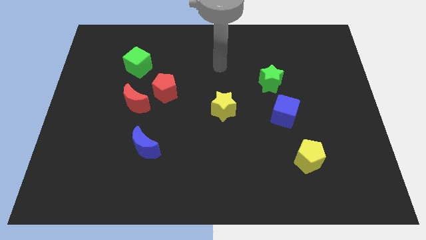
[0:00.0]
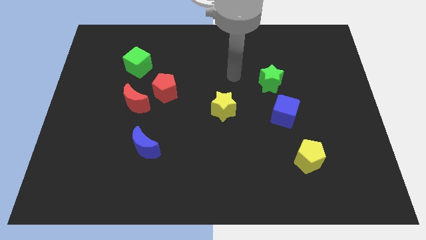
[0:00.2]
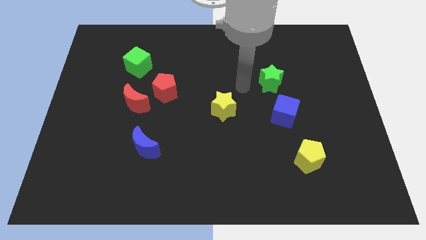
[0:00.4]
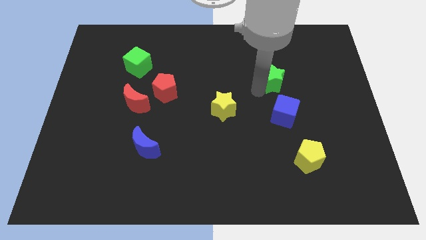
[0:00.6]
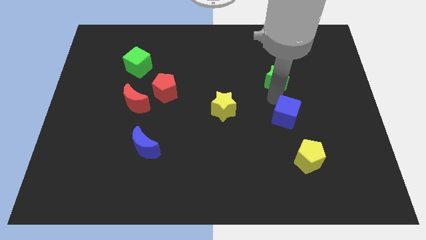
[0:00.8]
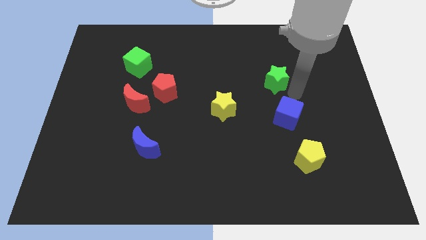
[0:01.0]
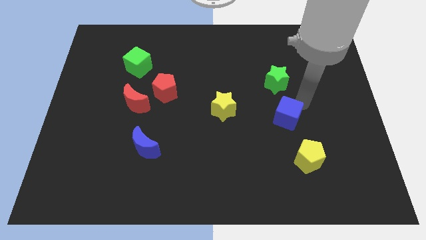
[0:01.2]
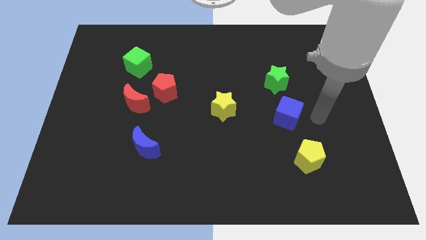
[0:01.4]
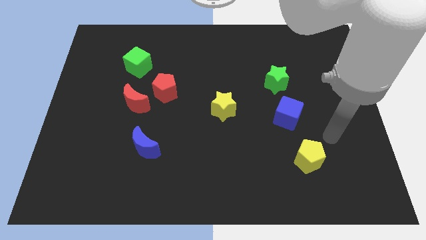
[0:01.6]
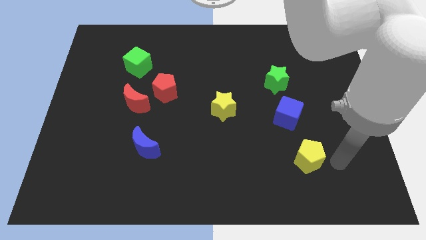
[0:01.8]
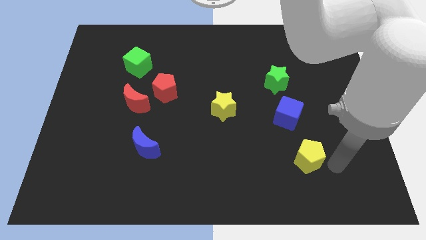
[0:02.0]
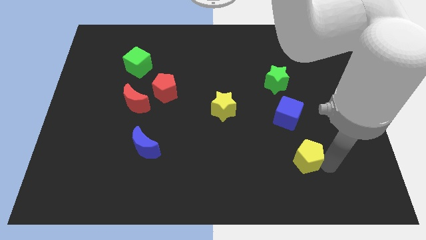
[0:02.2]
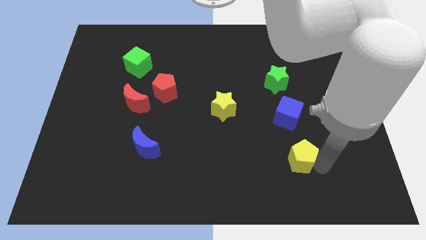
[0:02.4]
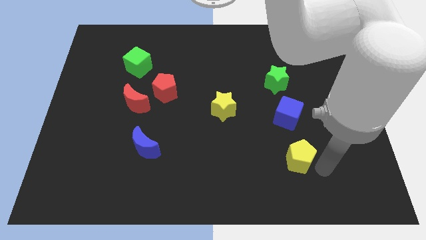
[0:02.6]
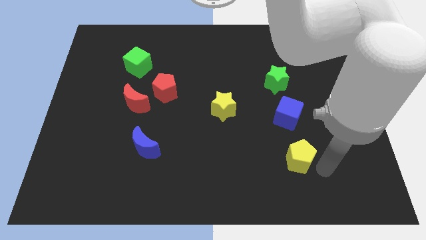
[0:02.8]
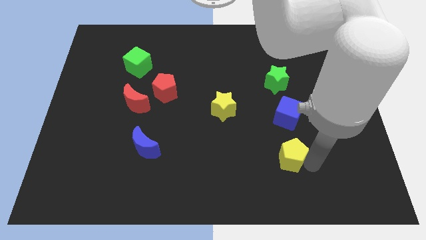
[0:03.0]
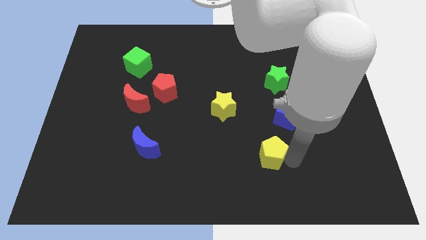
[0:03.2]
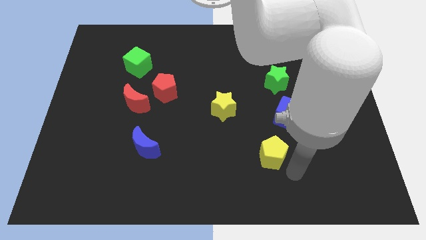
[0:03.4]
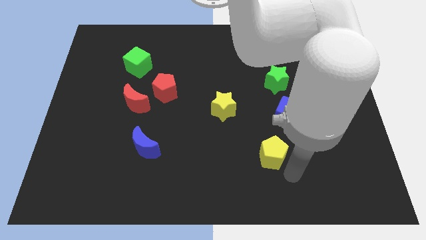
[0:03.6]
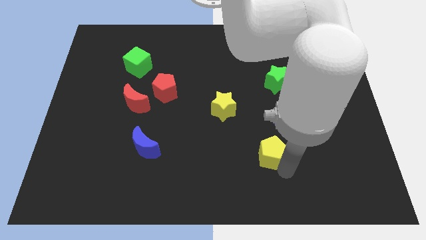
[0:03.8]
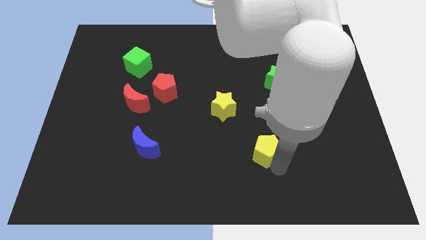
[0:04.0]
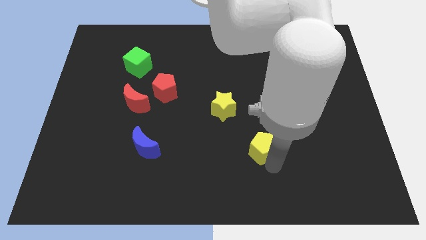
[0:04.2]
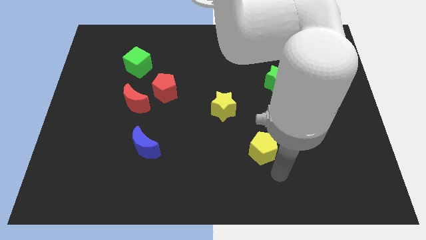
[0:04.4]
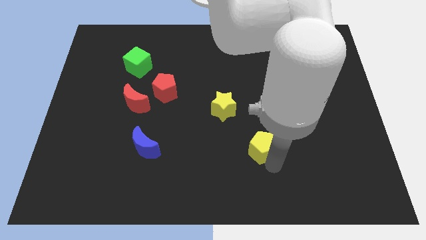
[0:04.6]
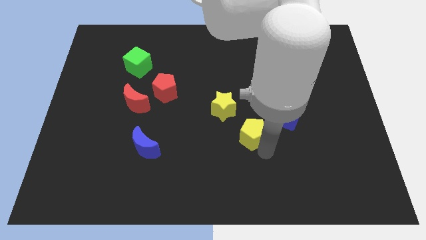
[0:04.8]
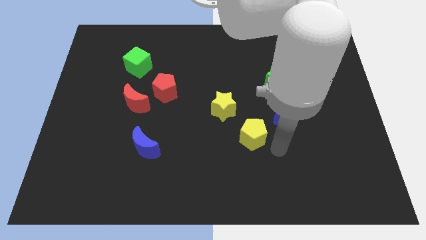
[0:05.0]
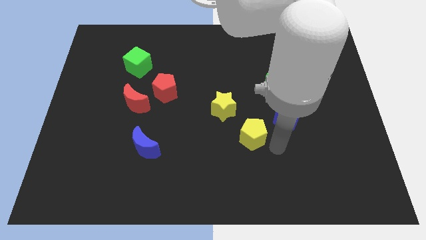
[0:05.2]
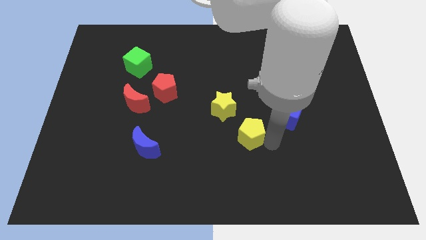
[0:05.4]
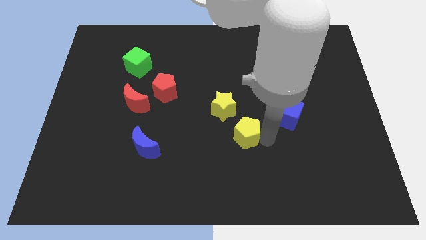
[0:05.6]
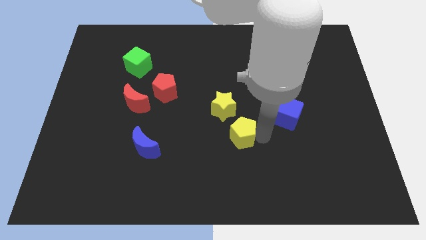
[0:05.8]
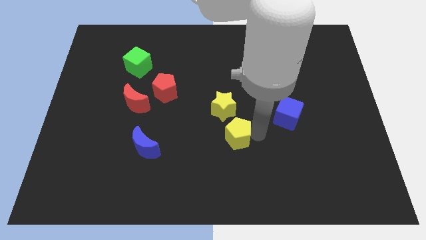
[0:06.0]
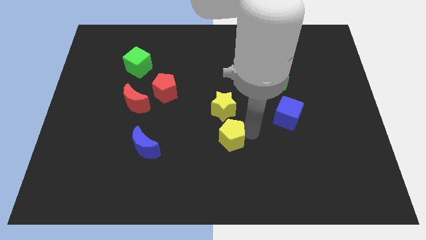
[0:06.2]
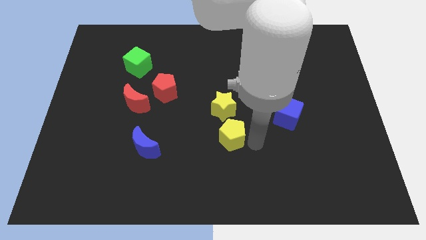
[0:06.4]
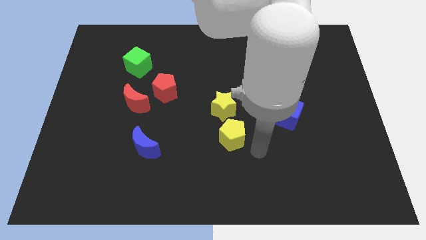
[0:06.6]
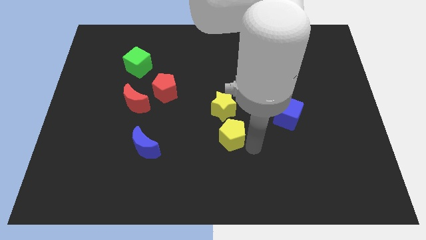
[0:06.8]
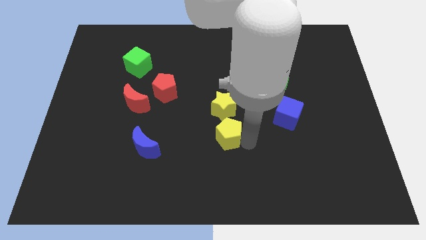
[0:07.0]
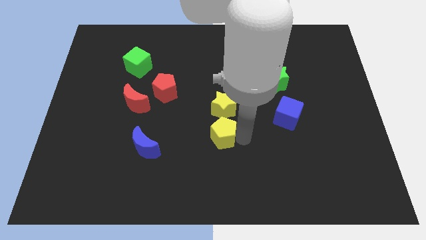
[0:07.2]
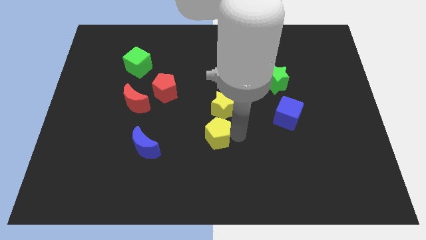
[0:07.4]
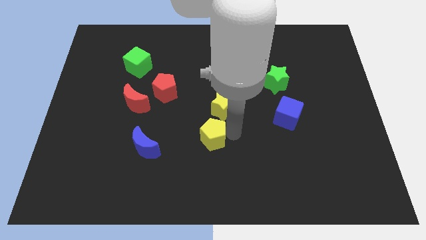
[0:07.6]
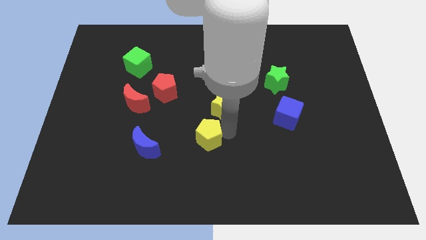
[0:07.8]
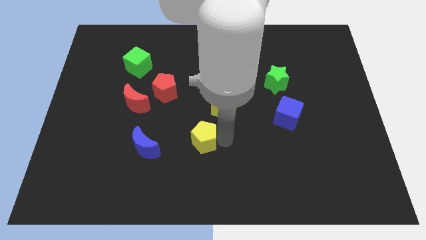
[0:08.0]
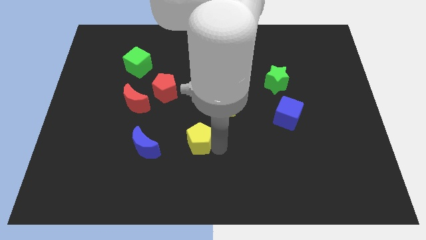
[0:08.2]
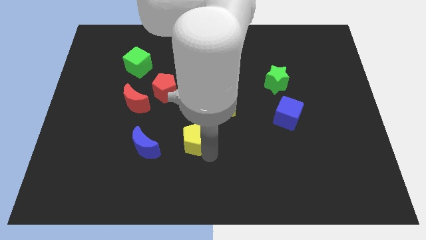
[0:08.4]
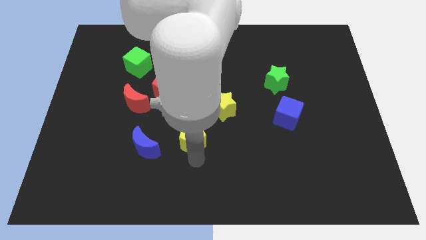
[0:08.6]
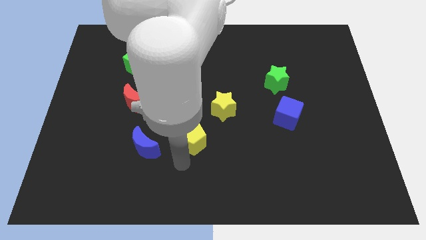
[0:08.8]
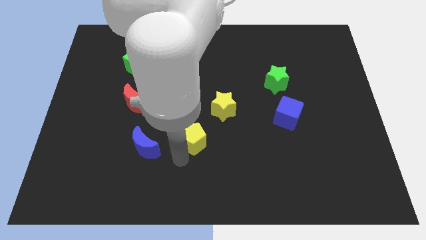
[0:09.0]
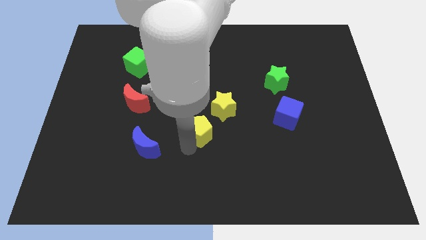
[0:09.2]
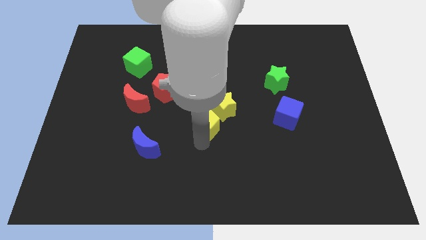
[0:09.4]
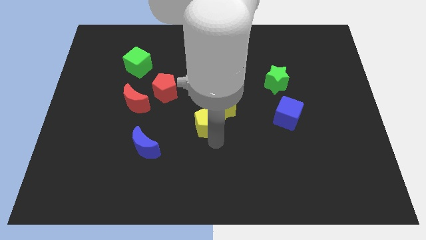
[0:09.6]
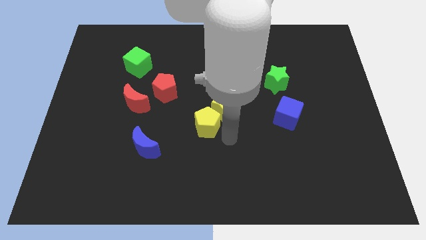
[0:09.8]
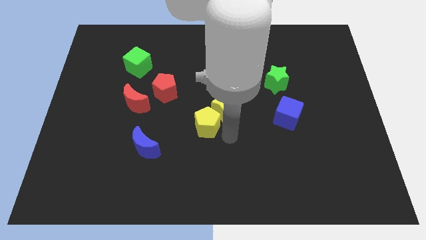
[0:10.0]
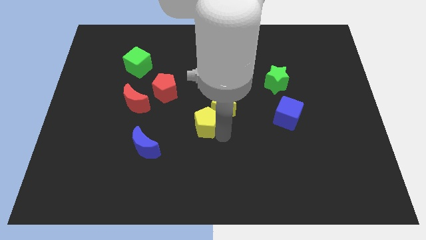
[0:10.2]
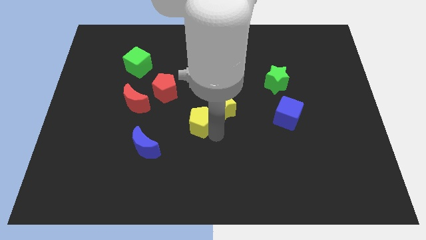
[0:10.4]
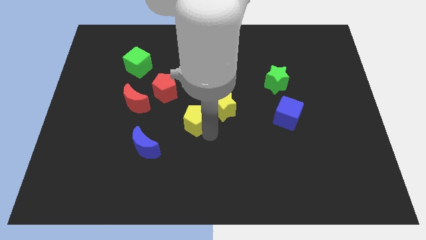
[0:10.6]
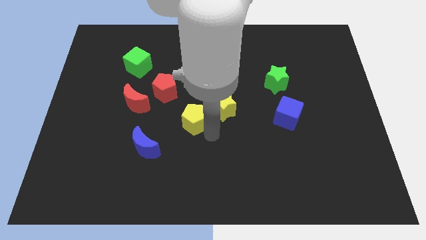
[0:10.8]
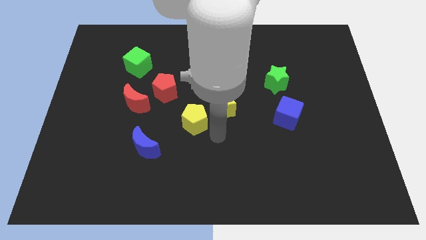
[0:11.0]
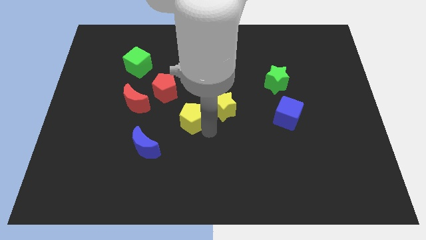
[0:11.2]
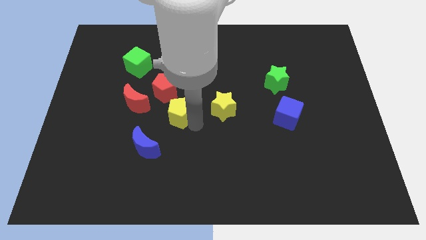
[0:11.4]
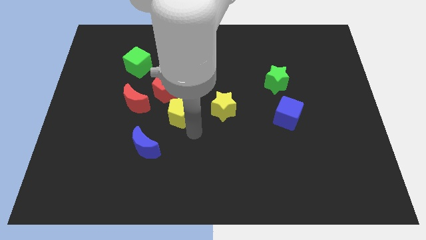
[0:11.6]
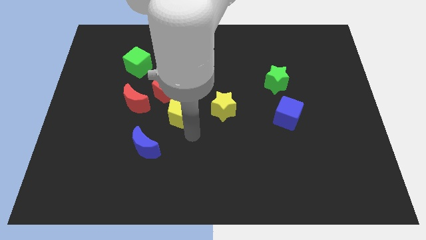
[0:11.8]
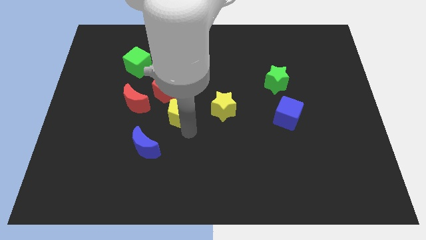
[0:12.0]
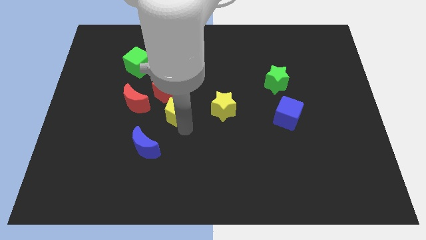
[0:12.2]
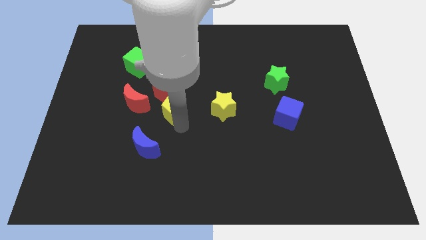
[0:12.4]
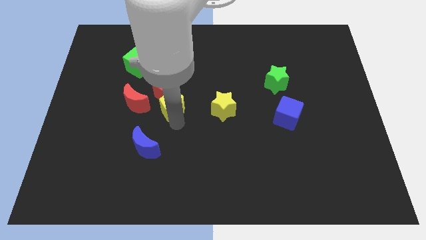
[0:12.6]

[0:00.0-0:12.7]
put the yellow pentagon towards the red pentagon

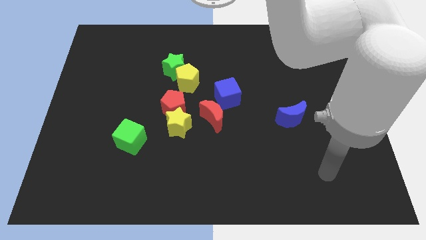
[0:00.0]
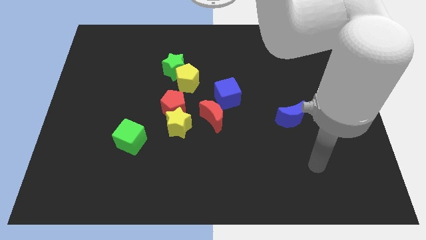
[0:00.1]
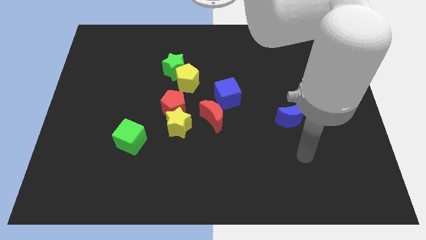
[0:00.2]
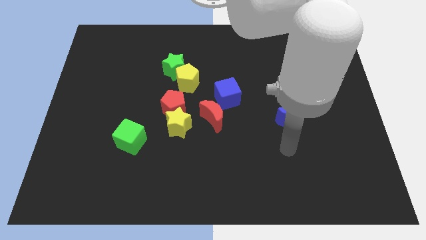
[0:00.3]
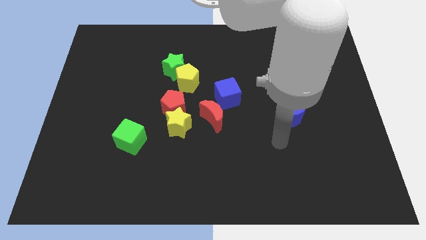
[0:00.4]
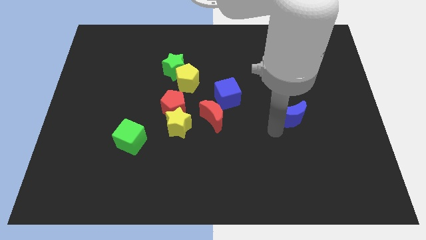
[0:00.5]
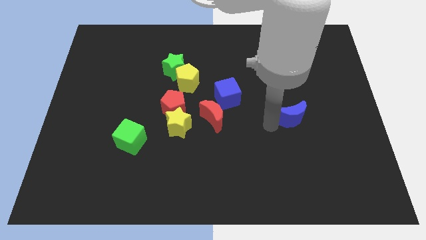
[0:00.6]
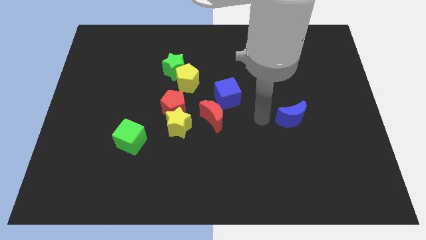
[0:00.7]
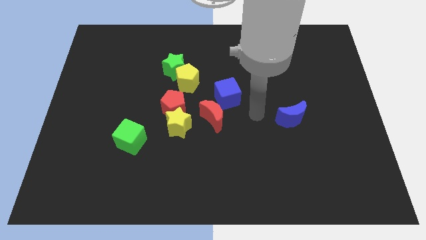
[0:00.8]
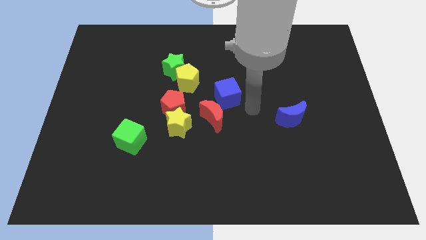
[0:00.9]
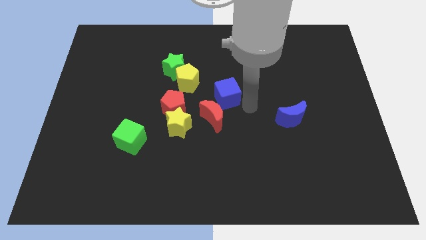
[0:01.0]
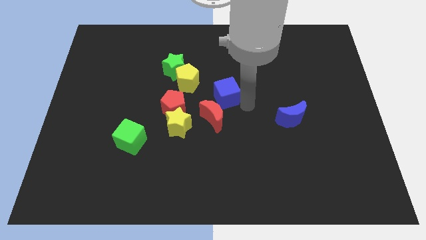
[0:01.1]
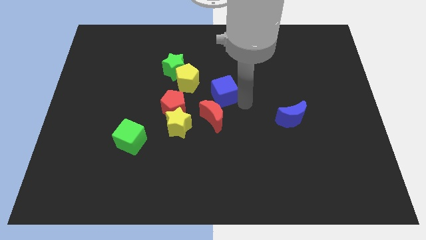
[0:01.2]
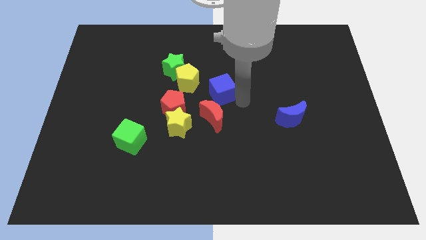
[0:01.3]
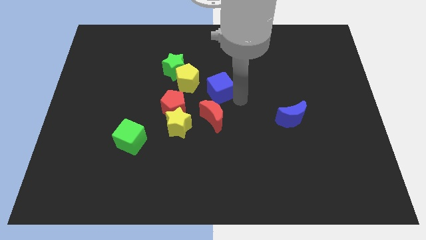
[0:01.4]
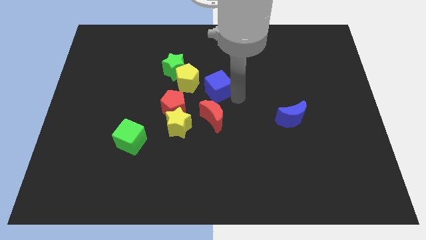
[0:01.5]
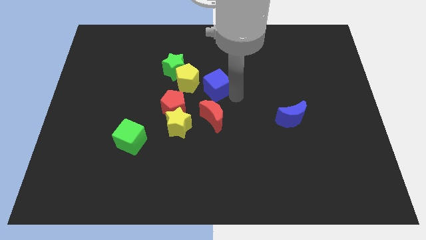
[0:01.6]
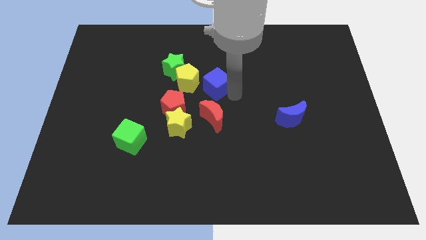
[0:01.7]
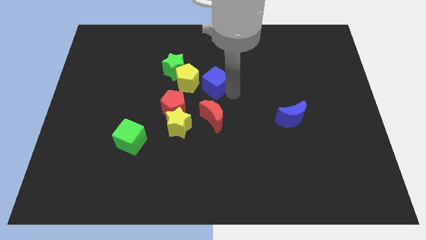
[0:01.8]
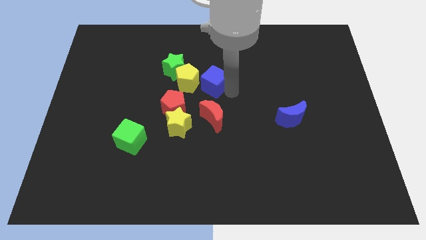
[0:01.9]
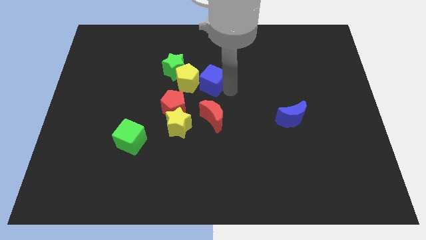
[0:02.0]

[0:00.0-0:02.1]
slide the blue cube to the yellow pentagon
